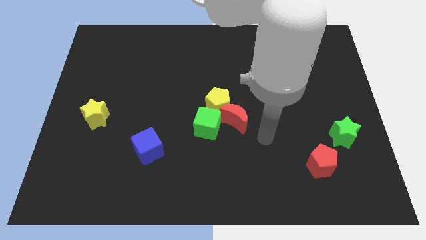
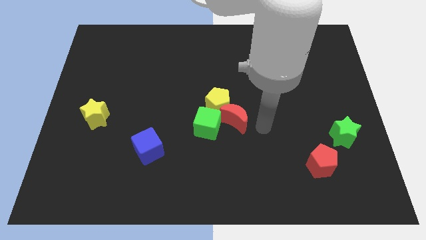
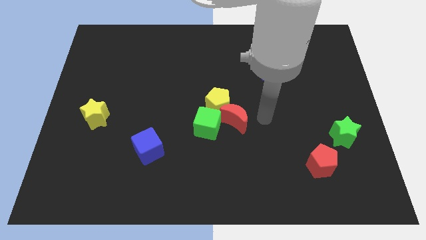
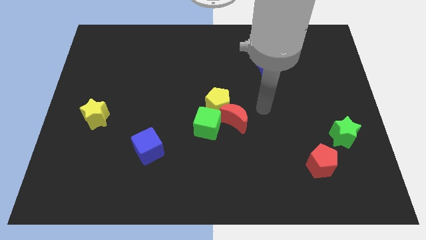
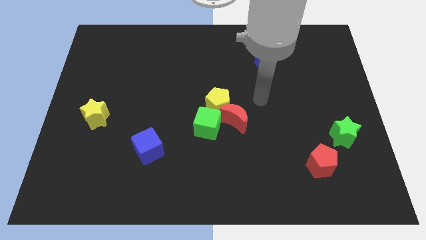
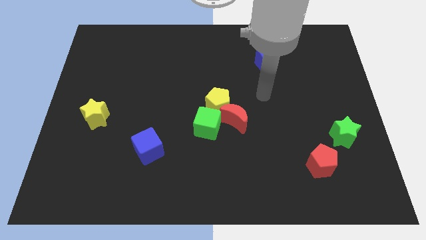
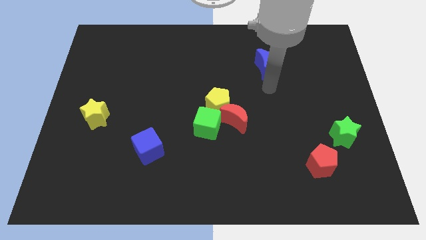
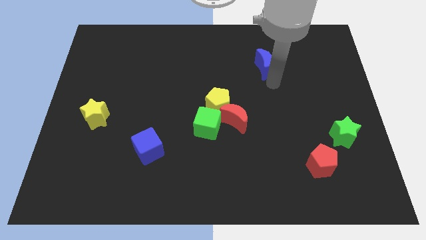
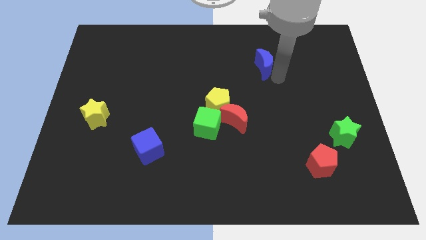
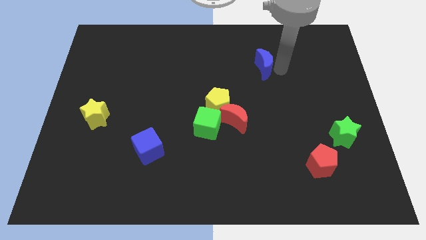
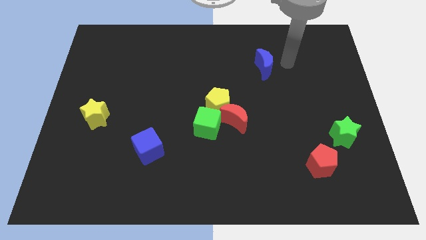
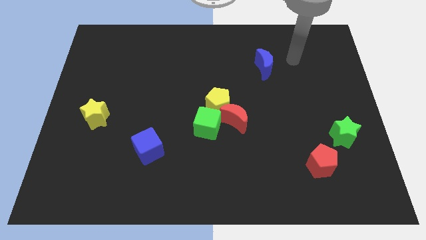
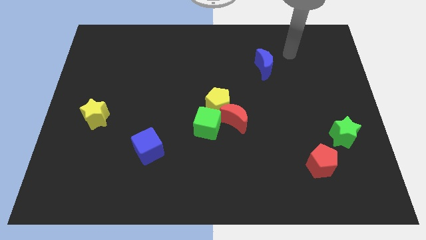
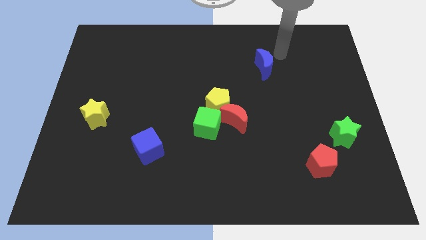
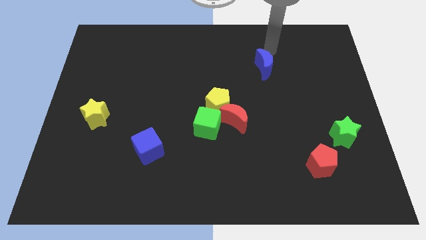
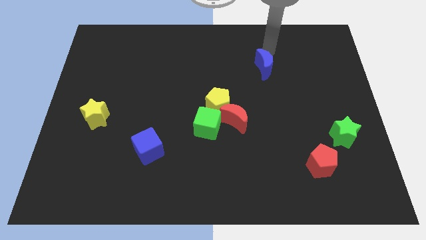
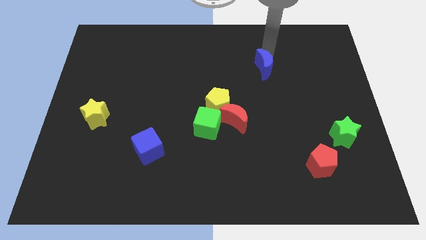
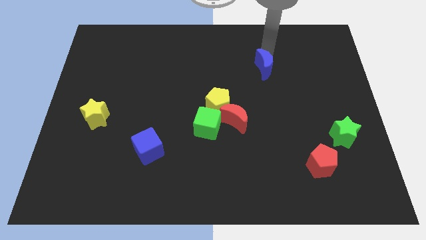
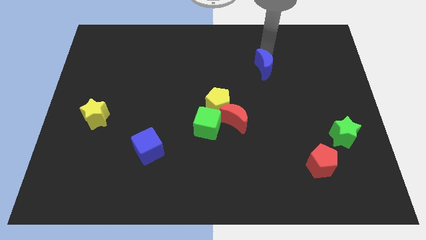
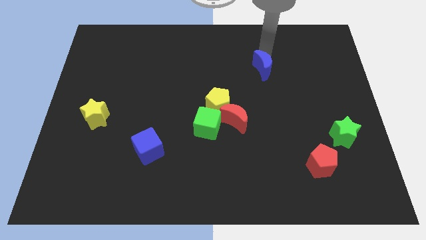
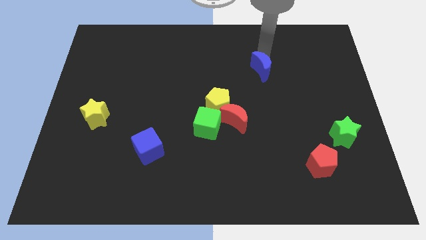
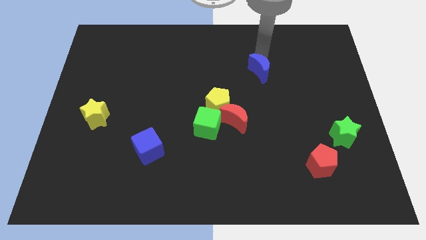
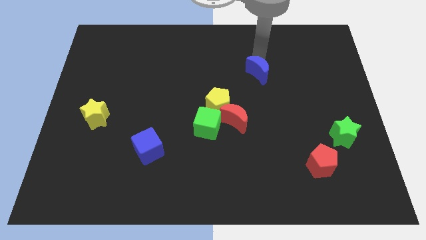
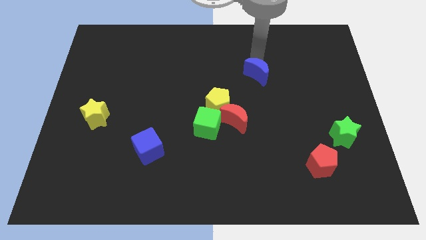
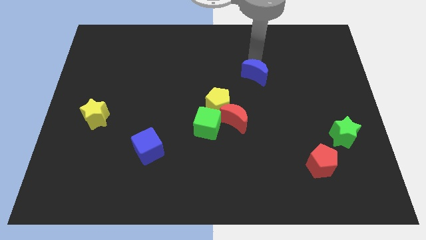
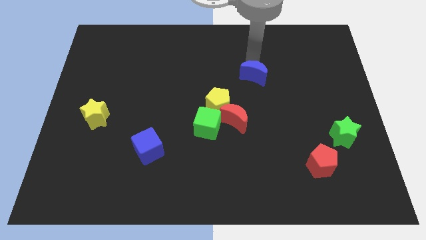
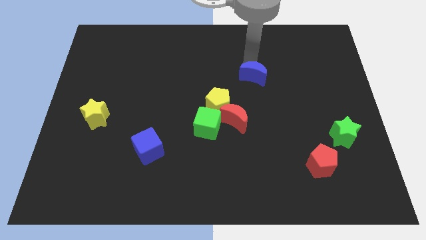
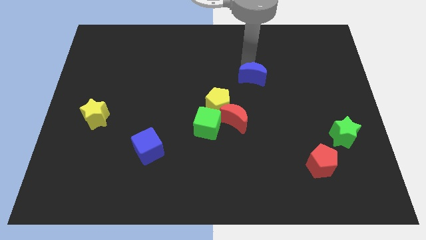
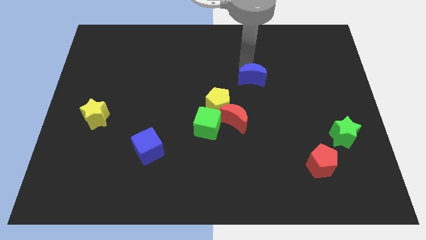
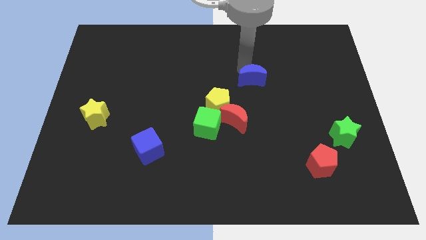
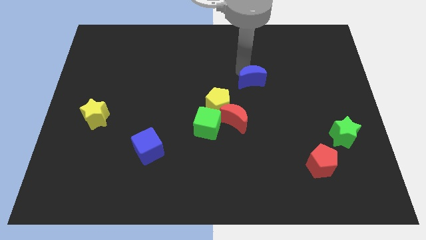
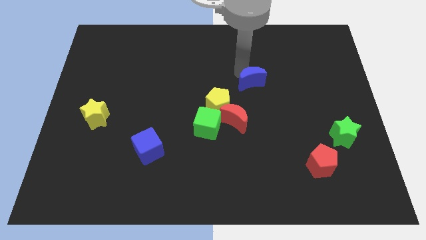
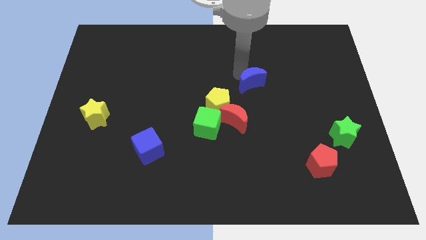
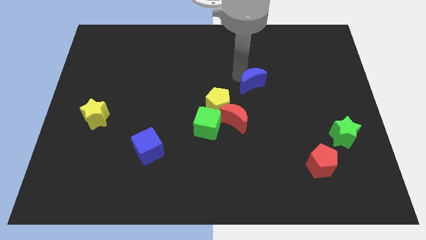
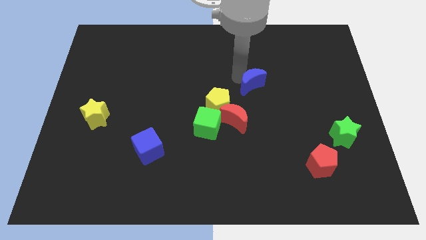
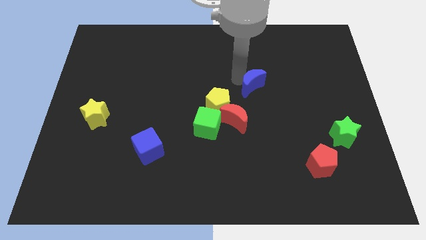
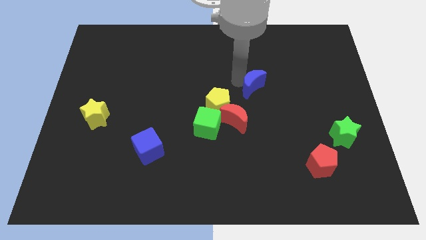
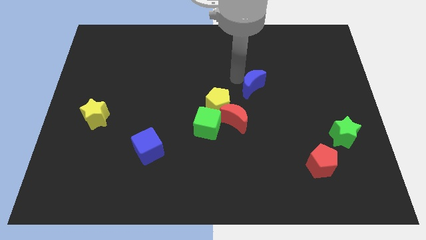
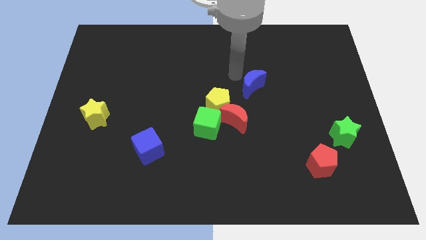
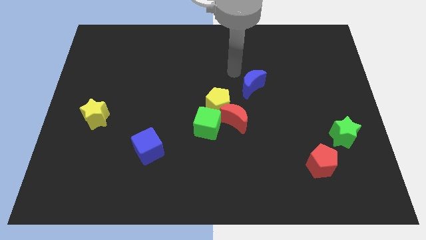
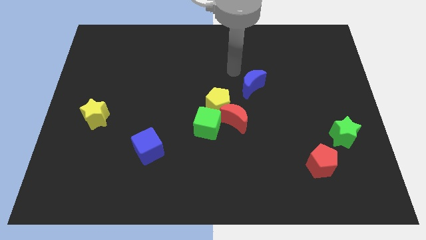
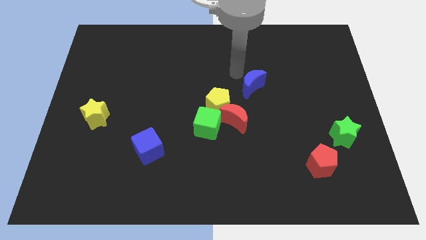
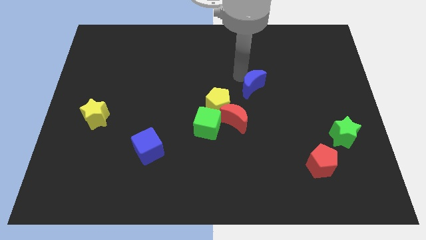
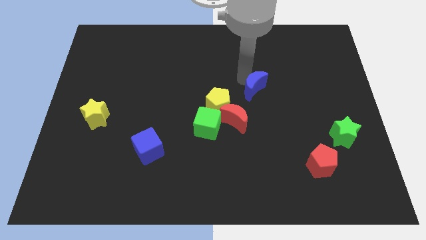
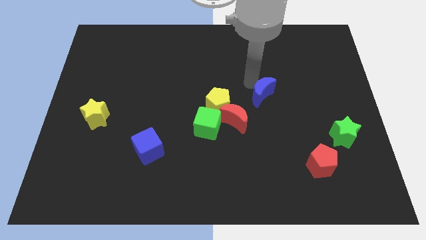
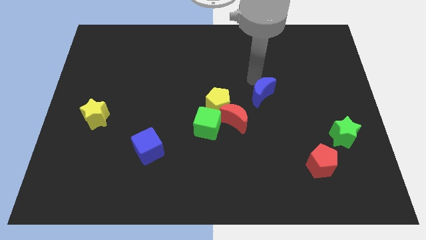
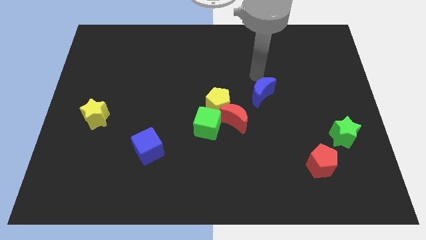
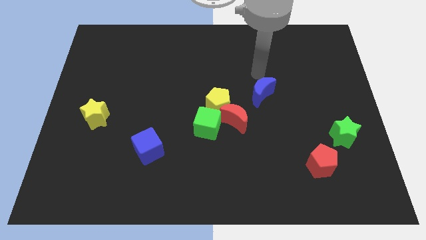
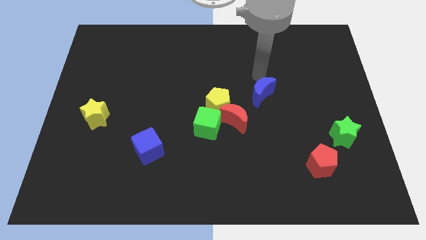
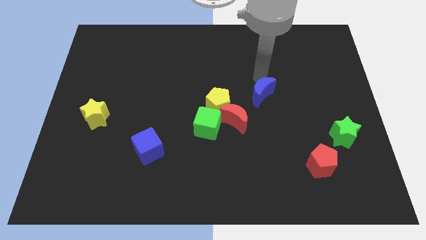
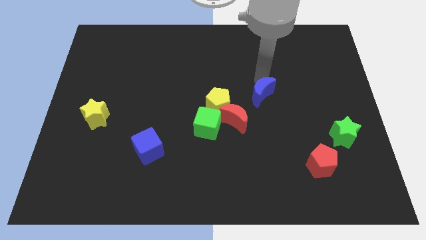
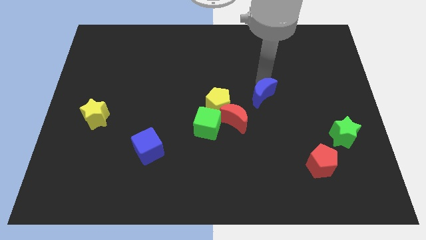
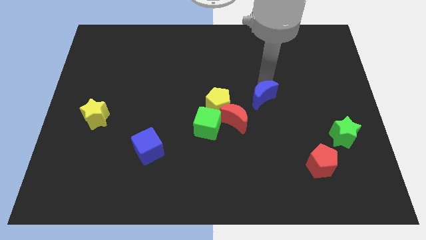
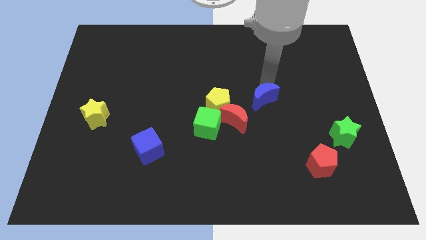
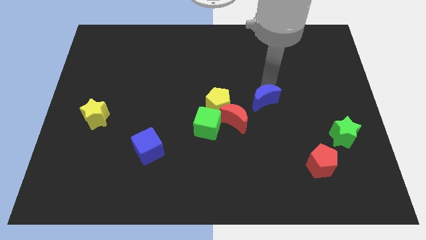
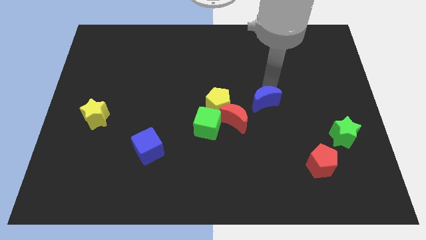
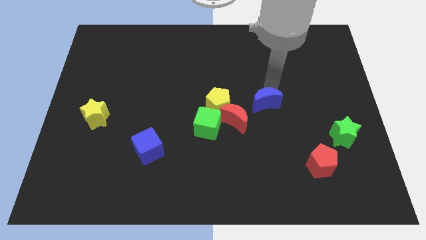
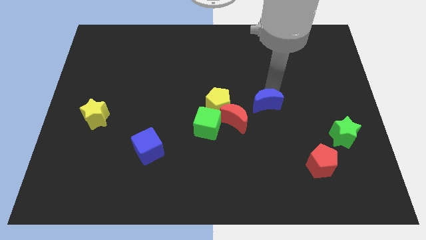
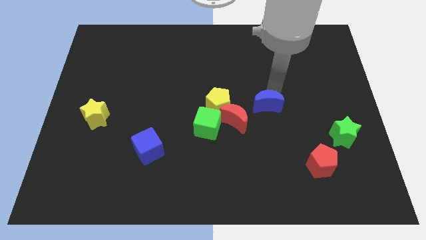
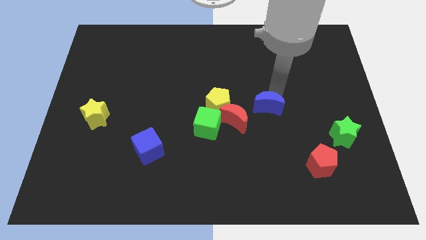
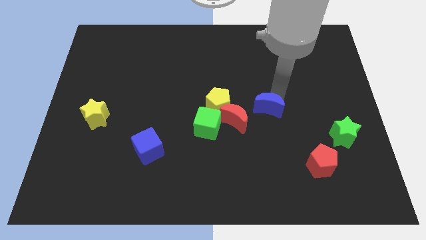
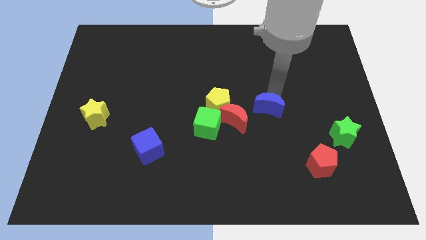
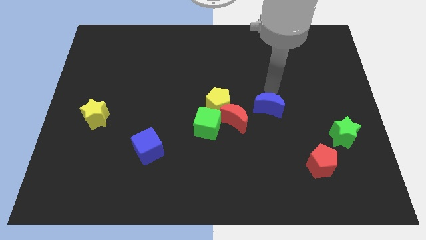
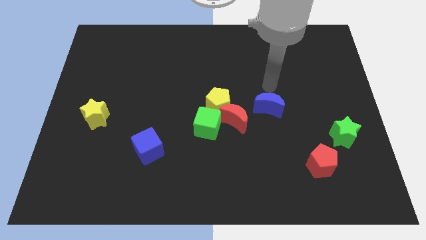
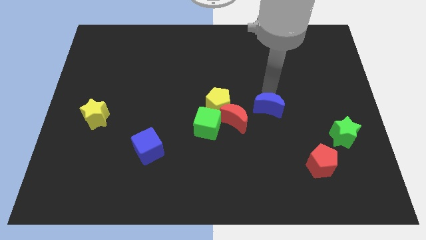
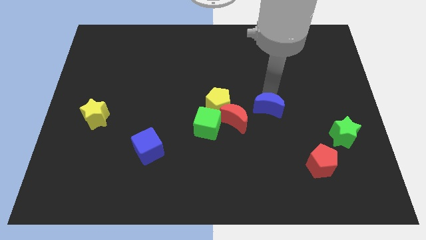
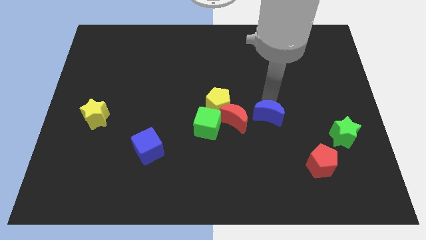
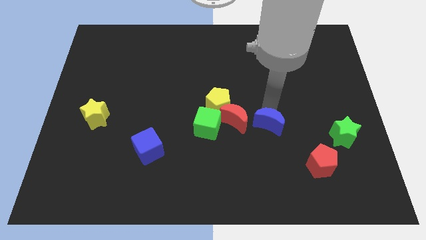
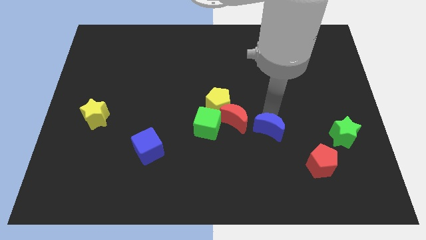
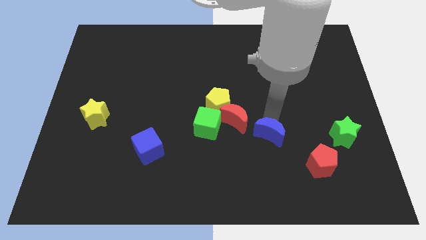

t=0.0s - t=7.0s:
push the blue moon down

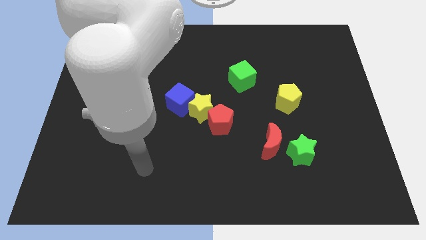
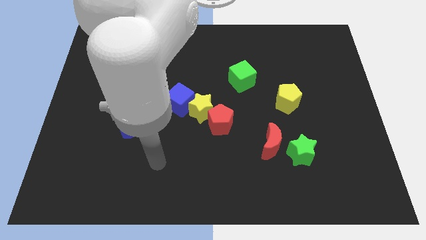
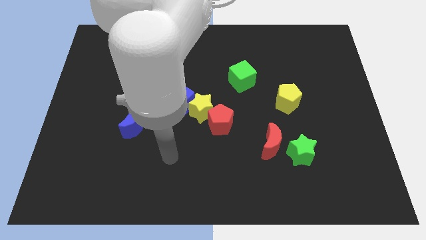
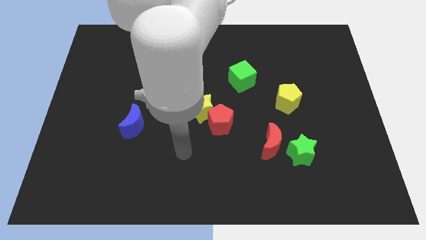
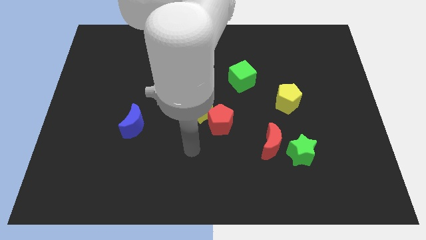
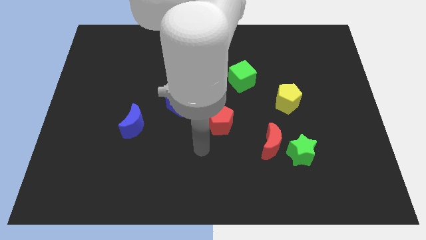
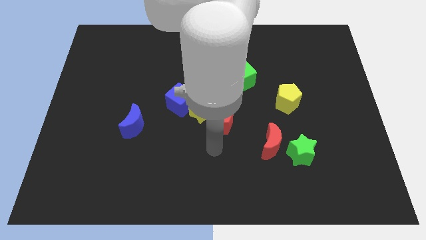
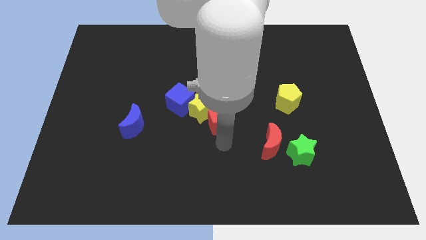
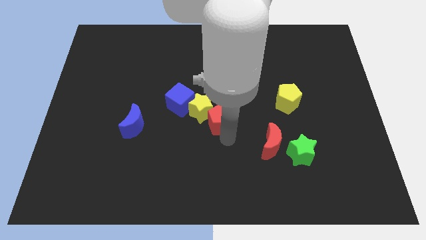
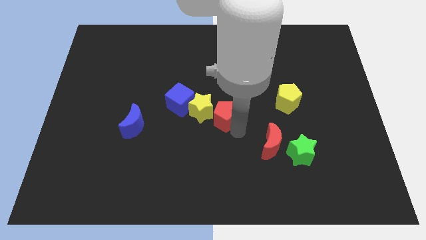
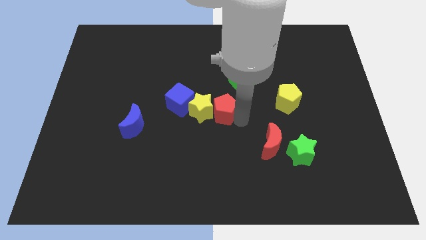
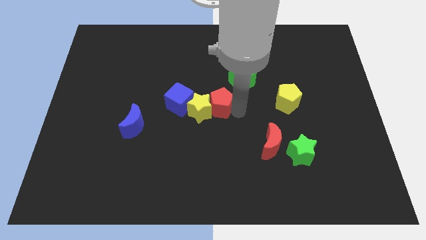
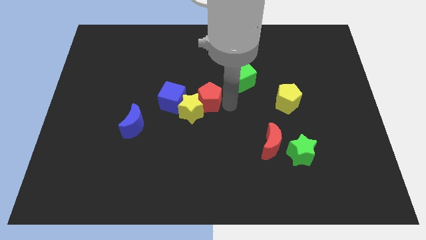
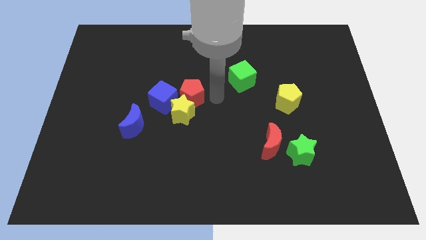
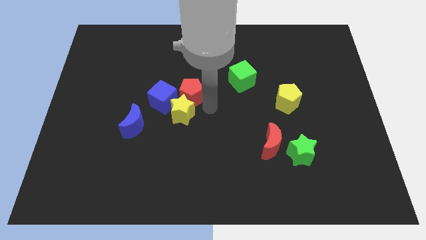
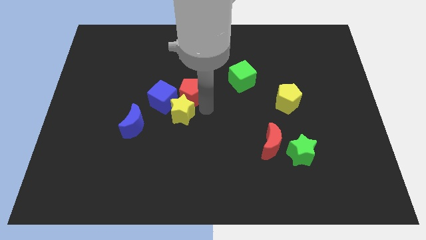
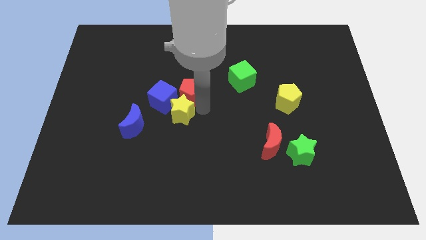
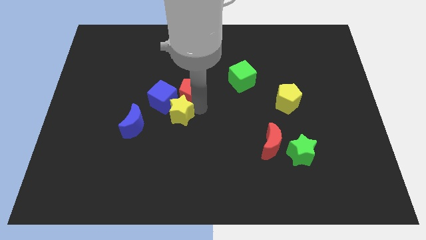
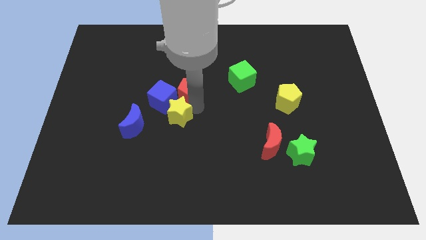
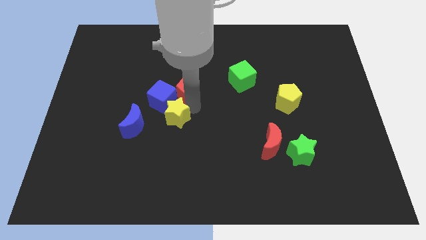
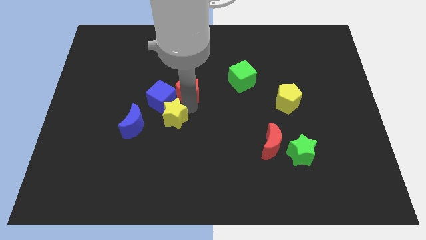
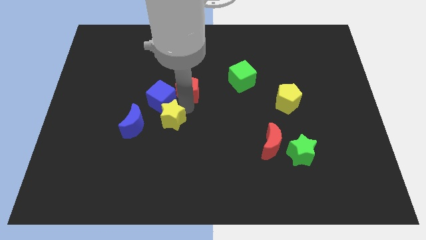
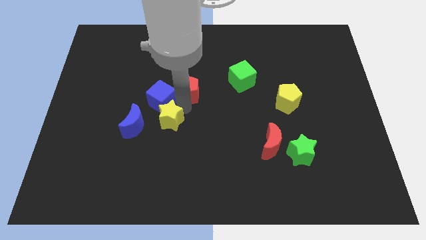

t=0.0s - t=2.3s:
slide the yellow star to the left somewhat
